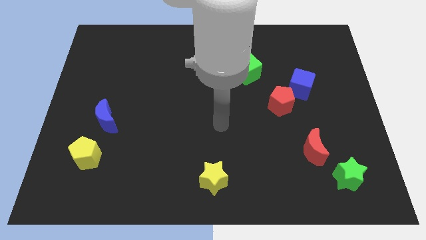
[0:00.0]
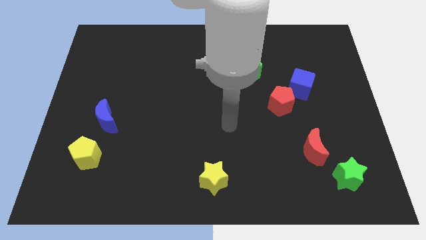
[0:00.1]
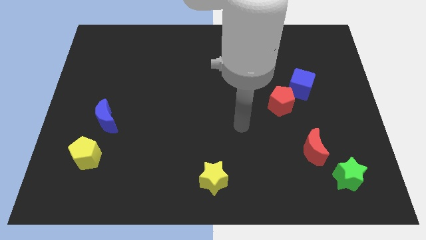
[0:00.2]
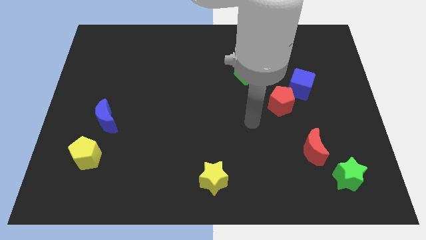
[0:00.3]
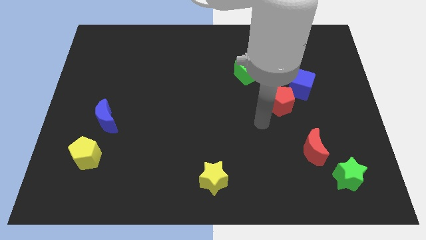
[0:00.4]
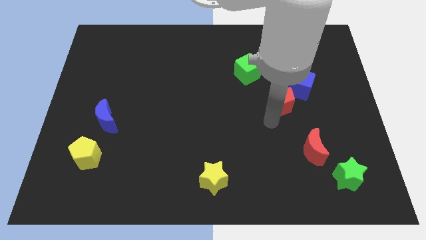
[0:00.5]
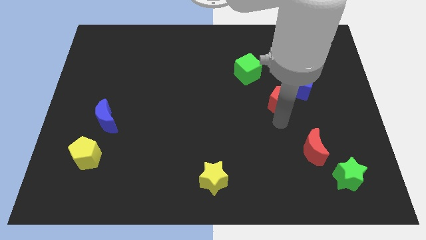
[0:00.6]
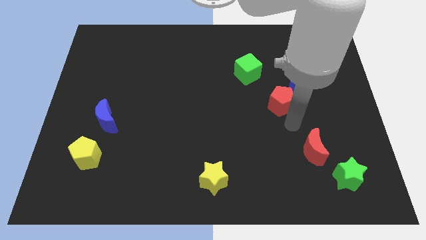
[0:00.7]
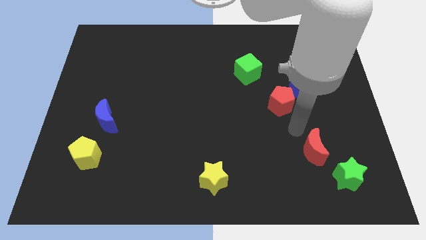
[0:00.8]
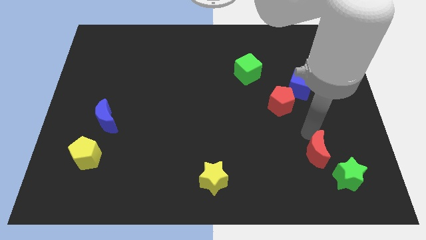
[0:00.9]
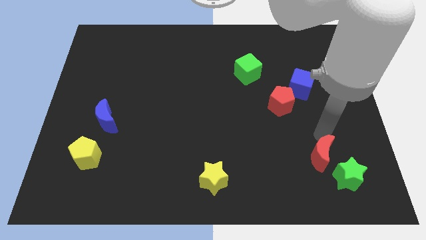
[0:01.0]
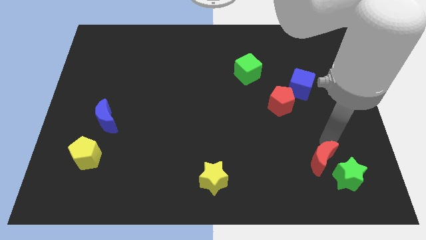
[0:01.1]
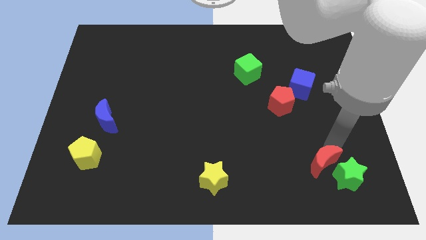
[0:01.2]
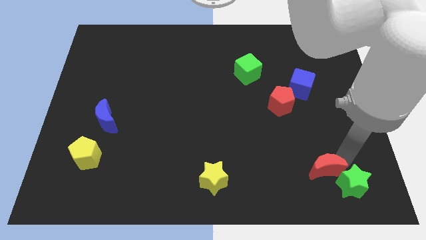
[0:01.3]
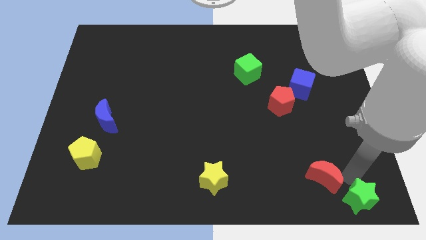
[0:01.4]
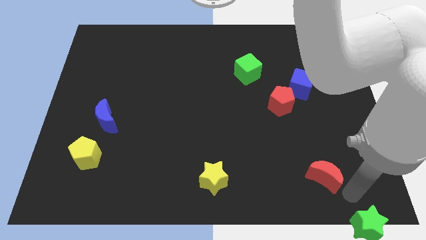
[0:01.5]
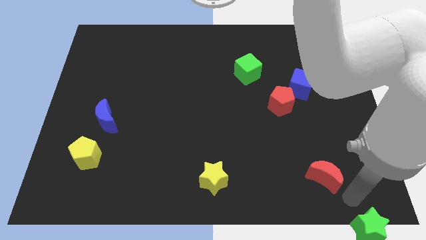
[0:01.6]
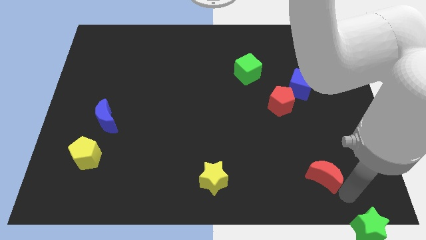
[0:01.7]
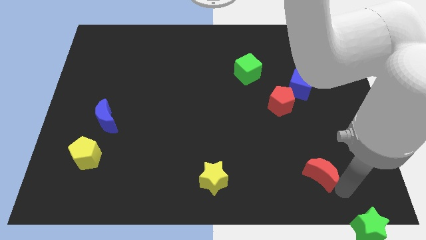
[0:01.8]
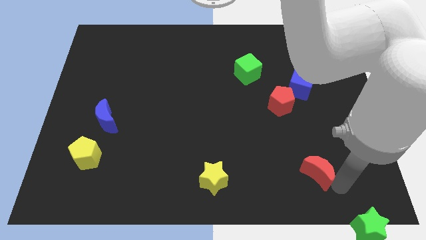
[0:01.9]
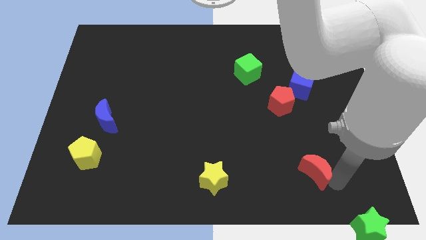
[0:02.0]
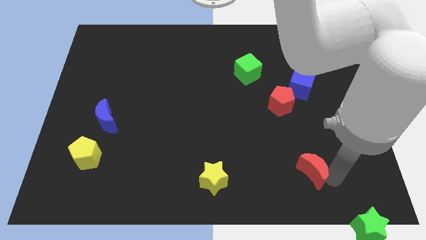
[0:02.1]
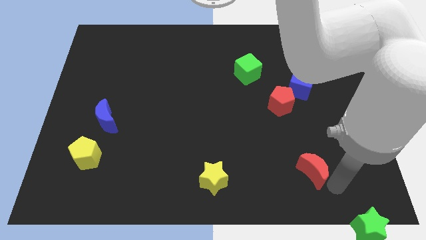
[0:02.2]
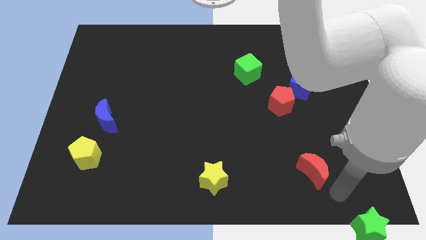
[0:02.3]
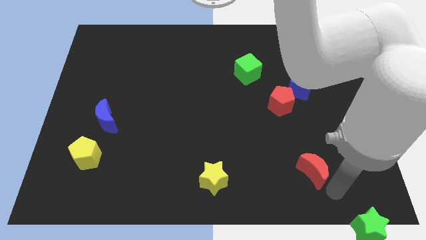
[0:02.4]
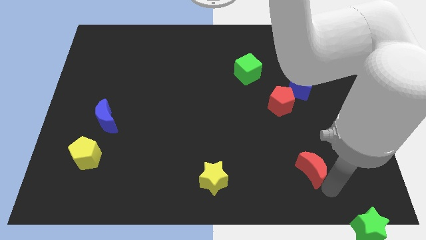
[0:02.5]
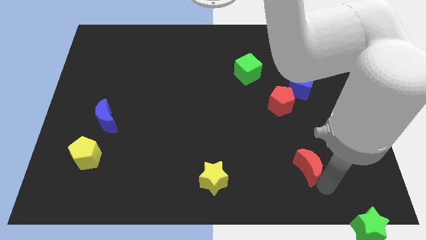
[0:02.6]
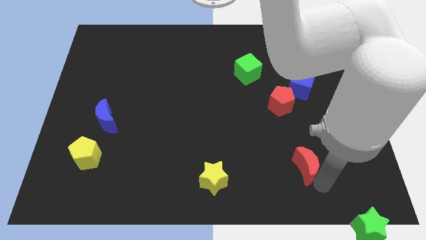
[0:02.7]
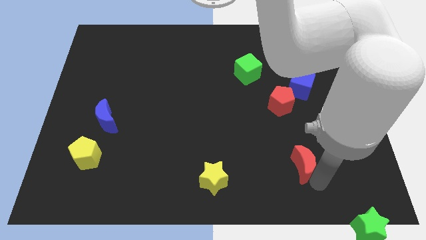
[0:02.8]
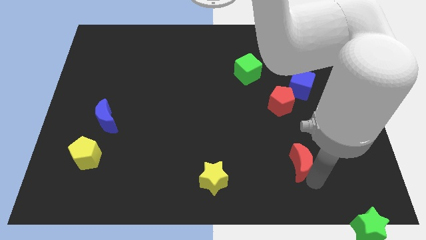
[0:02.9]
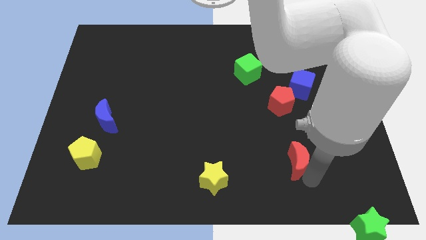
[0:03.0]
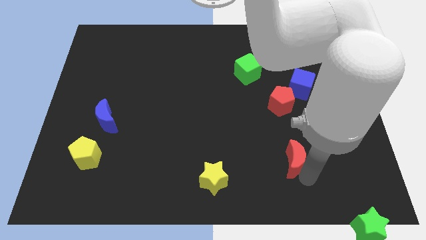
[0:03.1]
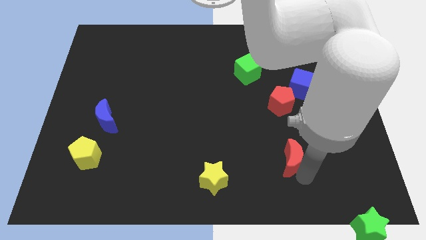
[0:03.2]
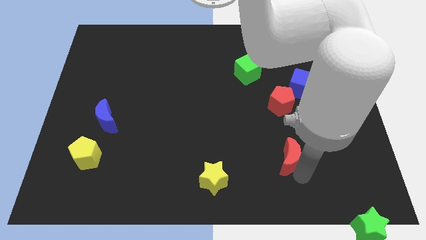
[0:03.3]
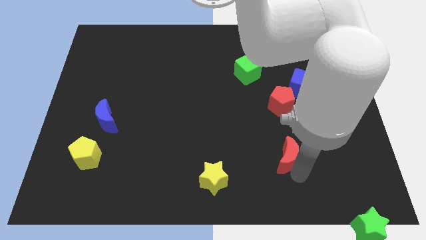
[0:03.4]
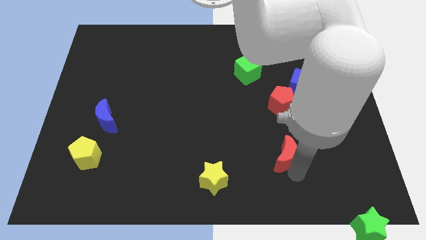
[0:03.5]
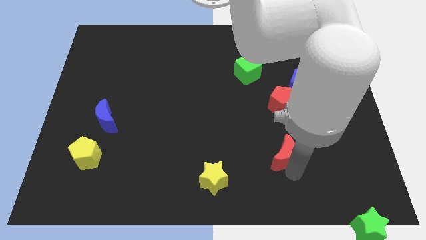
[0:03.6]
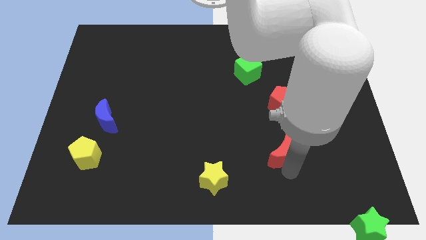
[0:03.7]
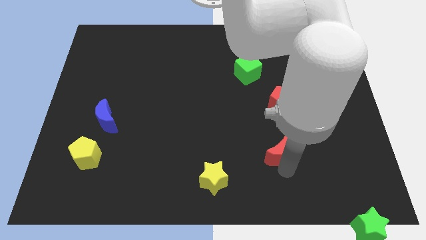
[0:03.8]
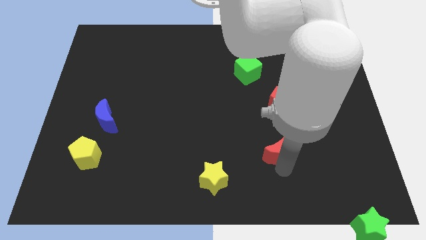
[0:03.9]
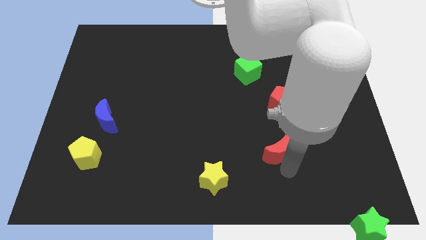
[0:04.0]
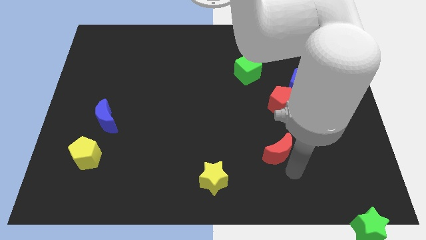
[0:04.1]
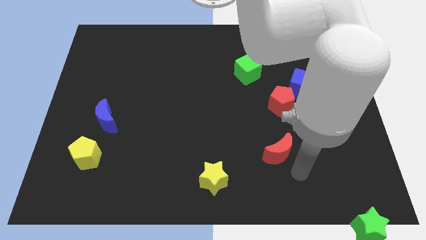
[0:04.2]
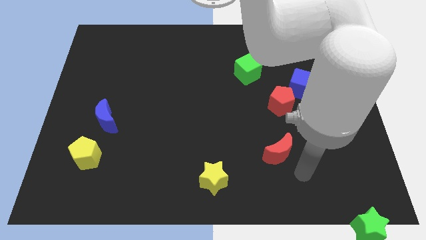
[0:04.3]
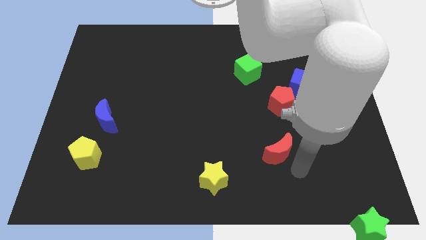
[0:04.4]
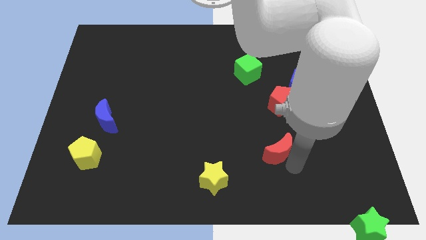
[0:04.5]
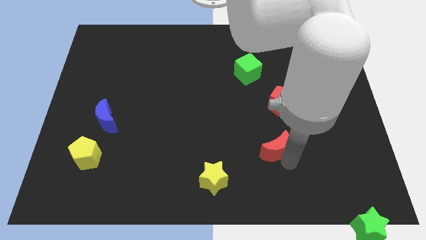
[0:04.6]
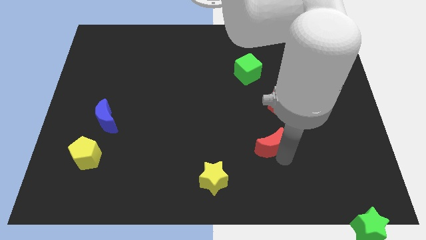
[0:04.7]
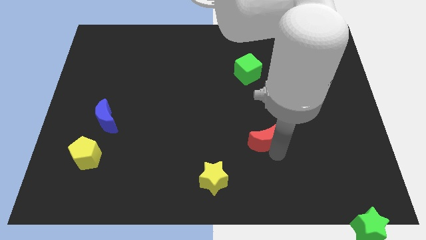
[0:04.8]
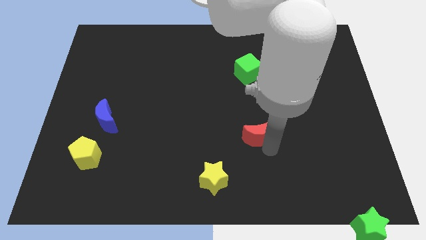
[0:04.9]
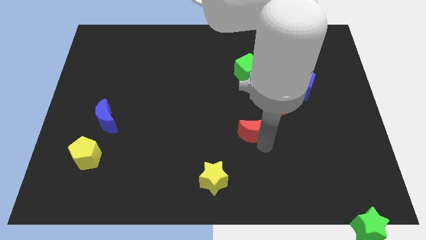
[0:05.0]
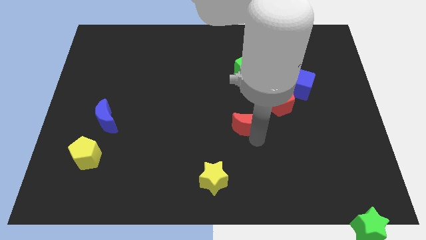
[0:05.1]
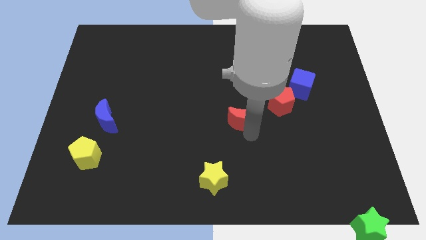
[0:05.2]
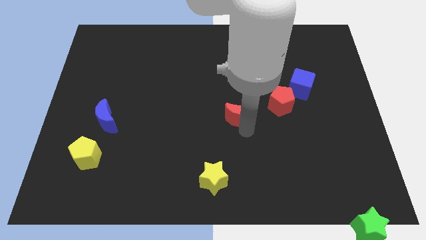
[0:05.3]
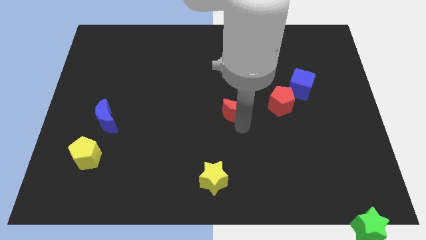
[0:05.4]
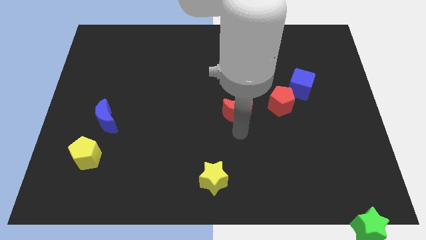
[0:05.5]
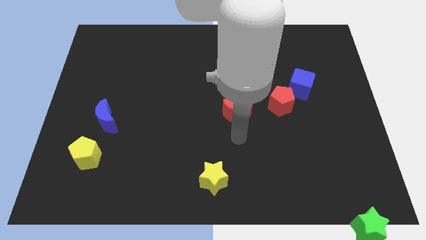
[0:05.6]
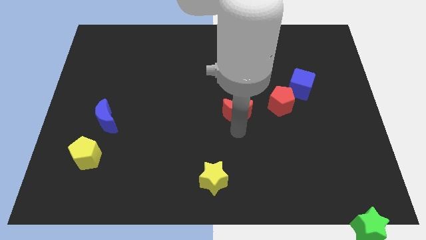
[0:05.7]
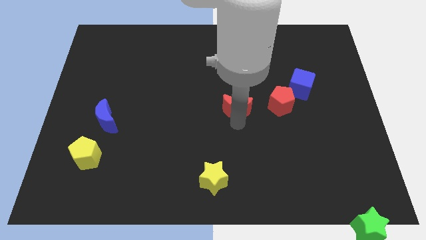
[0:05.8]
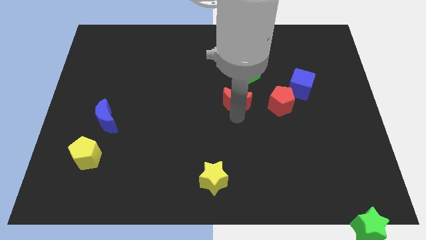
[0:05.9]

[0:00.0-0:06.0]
move the red moon up and to the left diagonally

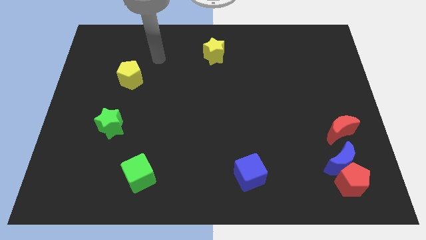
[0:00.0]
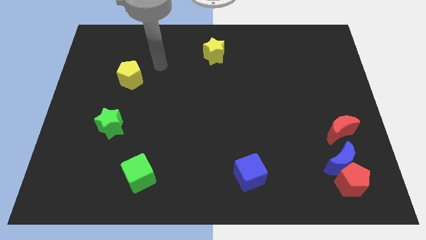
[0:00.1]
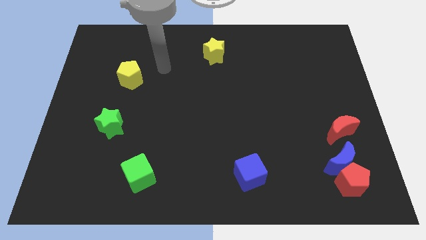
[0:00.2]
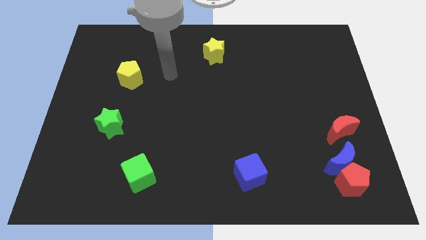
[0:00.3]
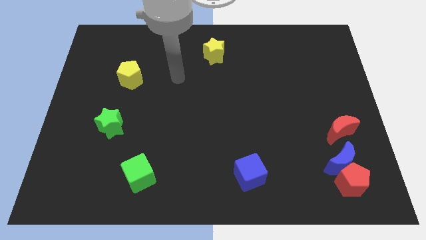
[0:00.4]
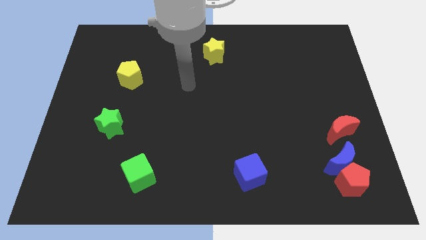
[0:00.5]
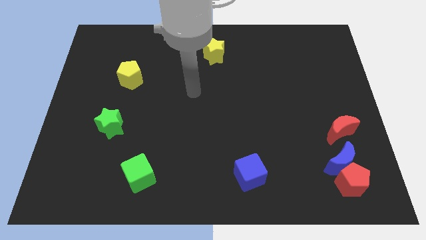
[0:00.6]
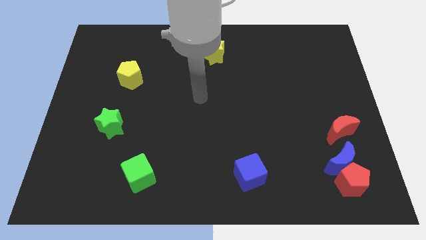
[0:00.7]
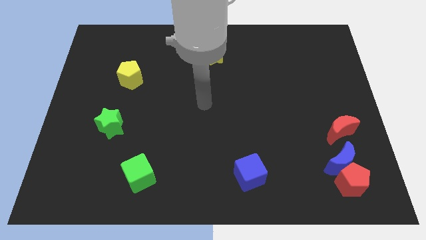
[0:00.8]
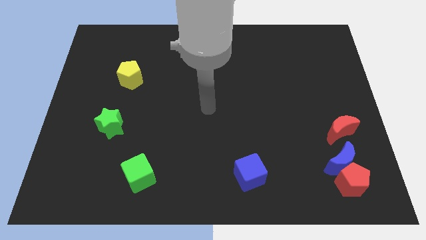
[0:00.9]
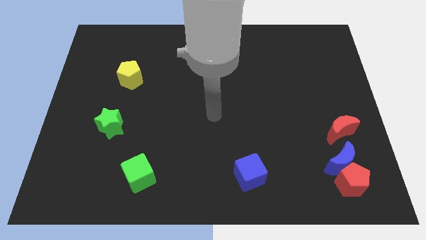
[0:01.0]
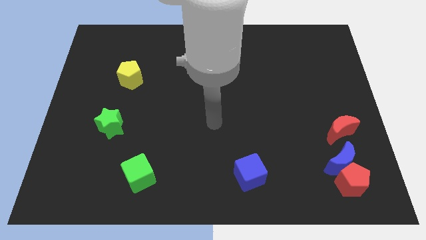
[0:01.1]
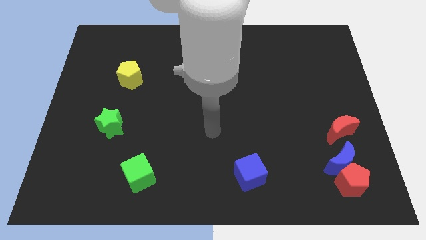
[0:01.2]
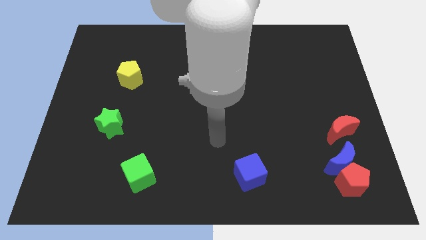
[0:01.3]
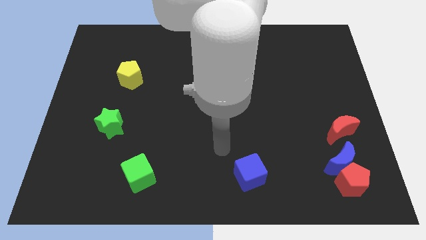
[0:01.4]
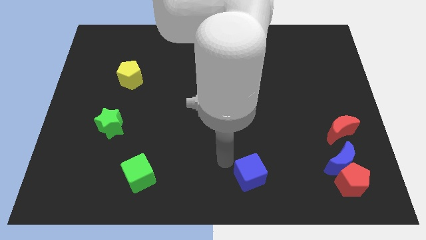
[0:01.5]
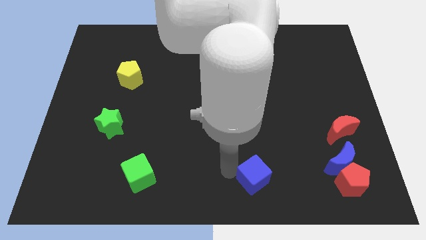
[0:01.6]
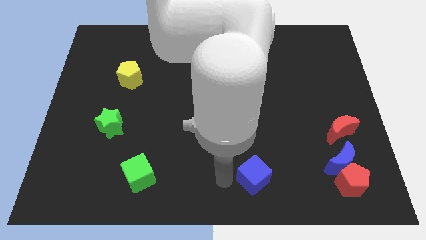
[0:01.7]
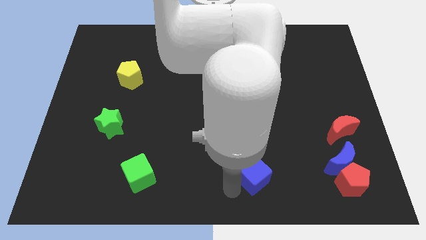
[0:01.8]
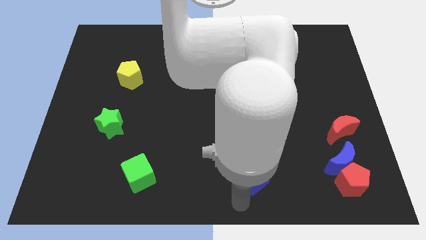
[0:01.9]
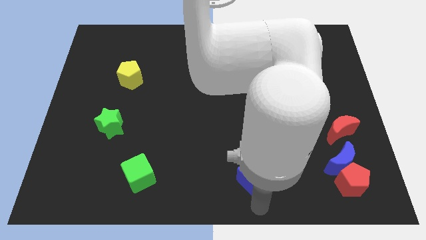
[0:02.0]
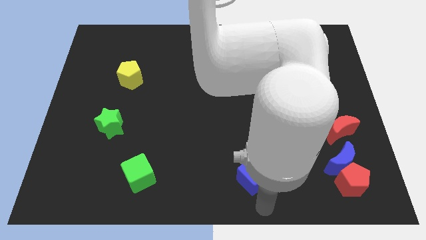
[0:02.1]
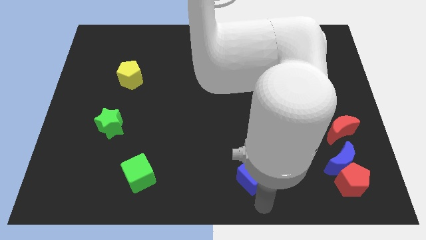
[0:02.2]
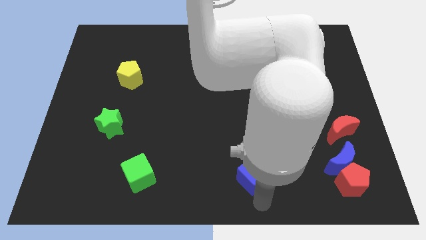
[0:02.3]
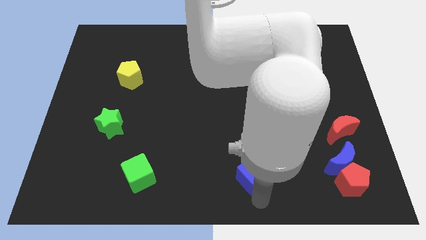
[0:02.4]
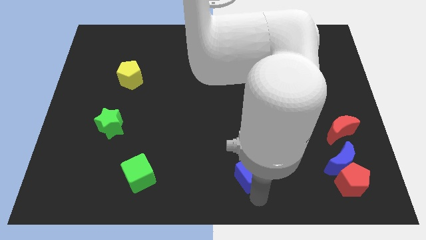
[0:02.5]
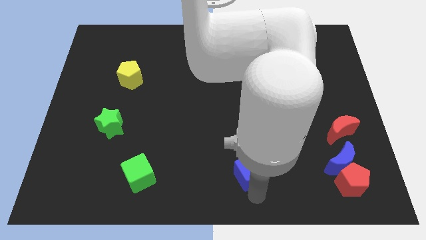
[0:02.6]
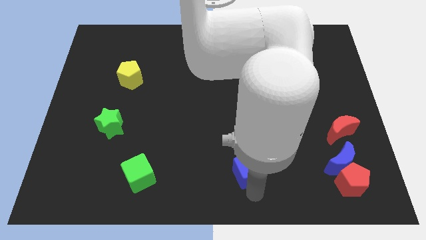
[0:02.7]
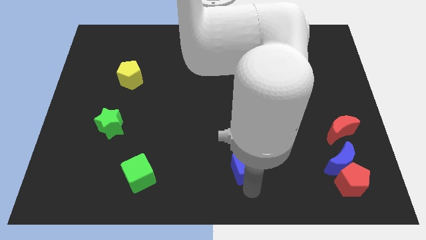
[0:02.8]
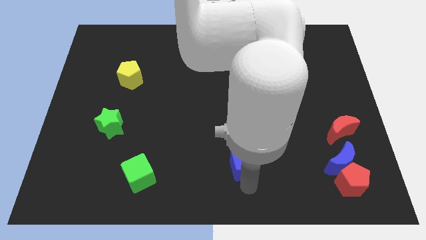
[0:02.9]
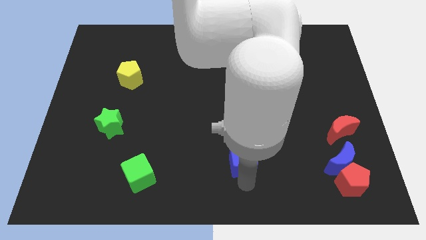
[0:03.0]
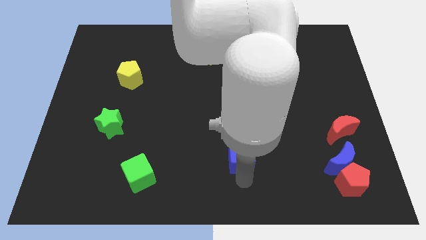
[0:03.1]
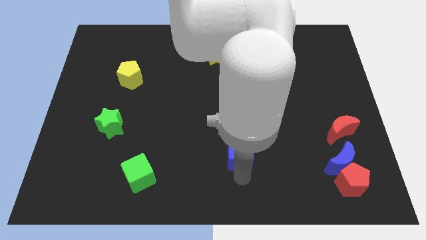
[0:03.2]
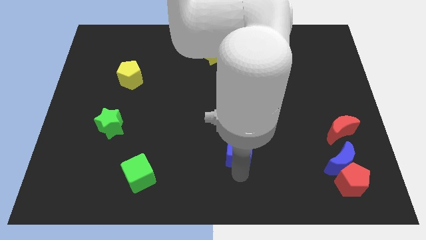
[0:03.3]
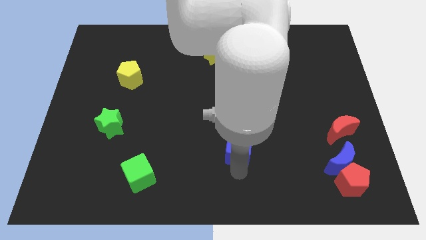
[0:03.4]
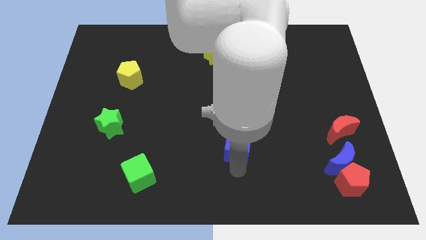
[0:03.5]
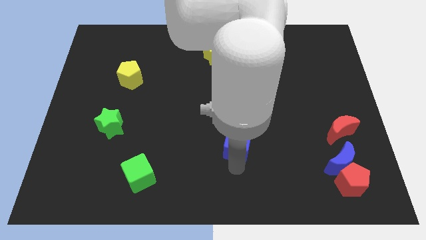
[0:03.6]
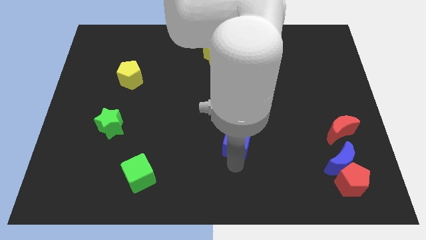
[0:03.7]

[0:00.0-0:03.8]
move the blue cube a little bit up
